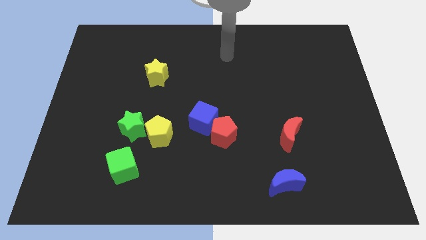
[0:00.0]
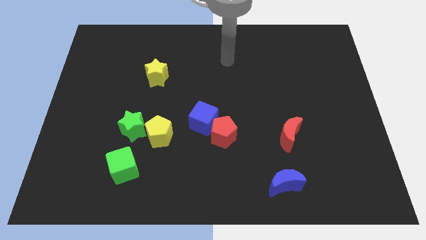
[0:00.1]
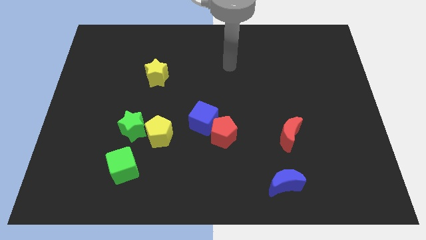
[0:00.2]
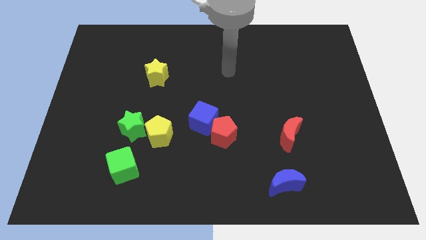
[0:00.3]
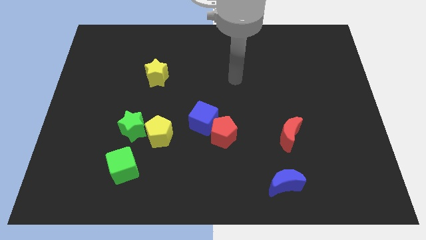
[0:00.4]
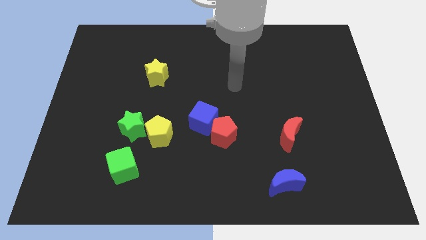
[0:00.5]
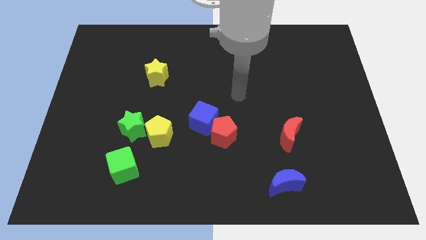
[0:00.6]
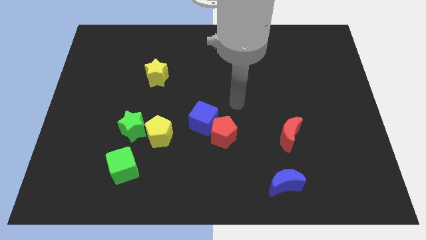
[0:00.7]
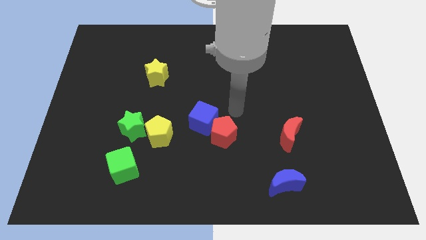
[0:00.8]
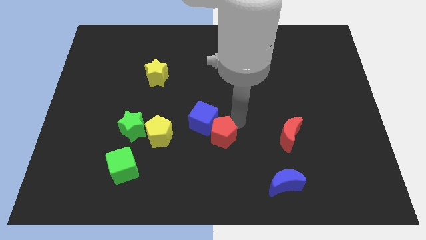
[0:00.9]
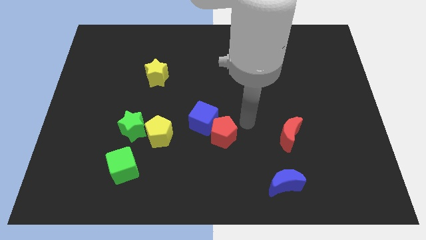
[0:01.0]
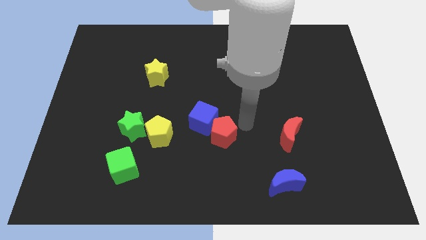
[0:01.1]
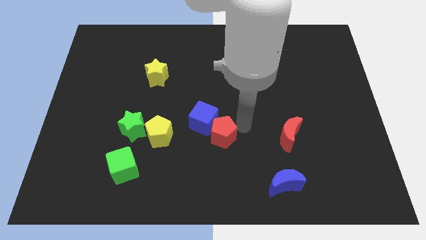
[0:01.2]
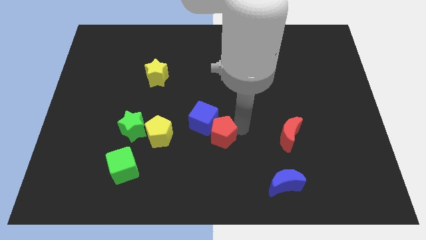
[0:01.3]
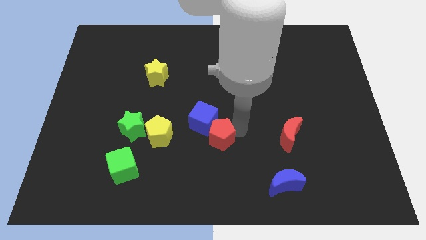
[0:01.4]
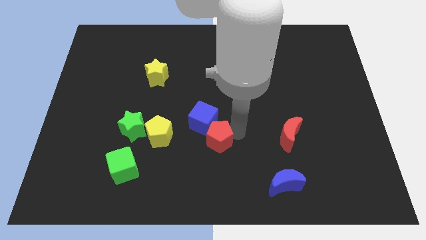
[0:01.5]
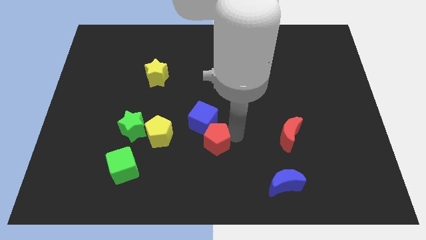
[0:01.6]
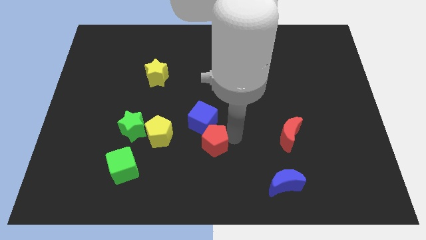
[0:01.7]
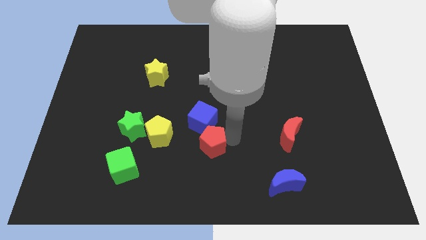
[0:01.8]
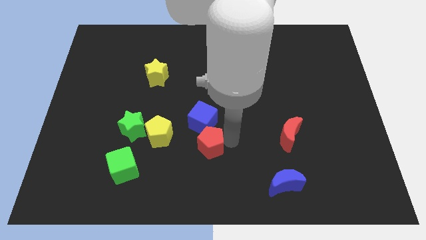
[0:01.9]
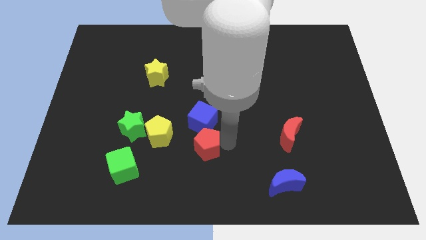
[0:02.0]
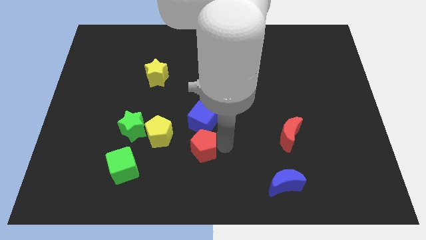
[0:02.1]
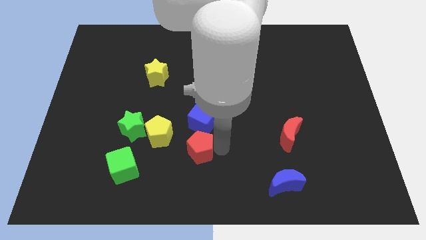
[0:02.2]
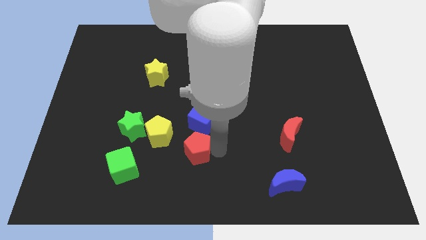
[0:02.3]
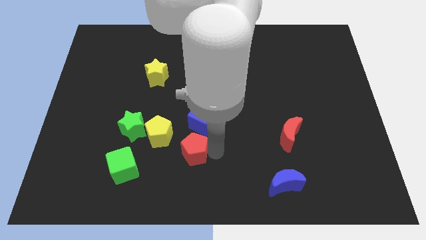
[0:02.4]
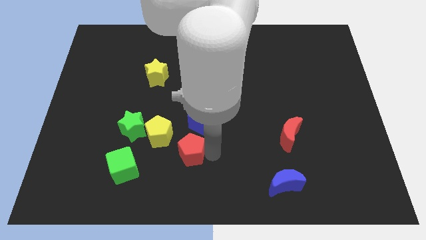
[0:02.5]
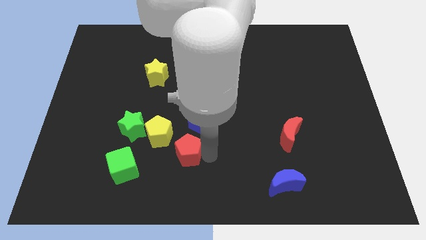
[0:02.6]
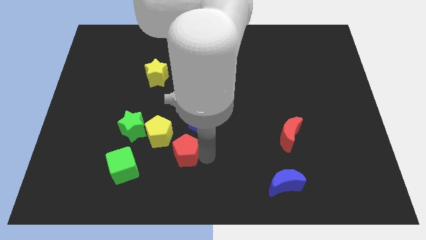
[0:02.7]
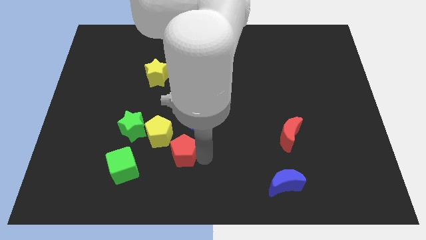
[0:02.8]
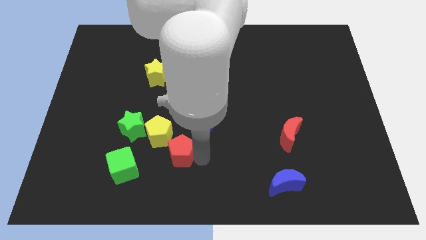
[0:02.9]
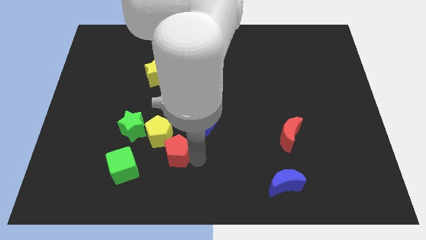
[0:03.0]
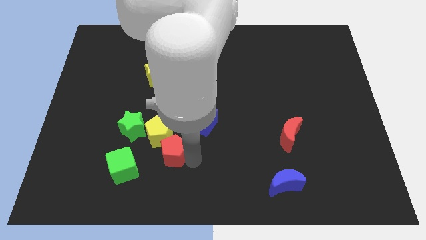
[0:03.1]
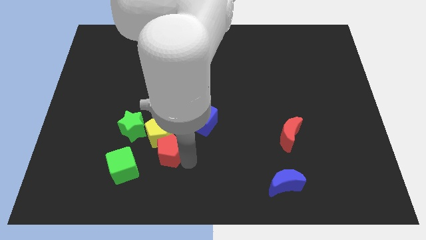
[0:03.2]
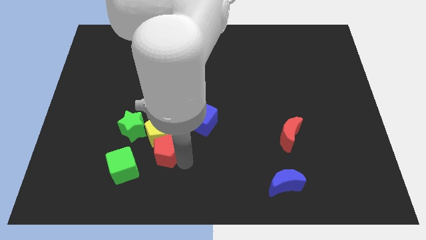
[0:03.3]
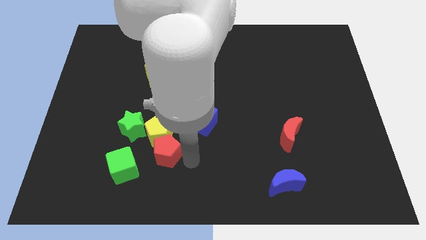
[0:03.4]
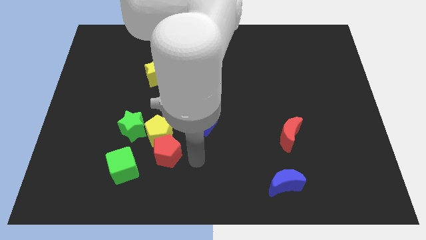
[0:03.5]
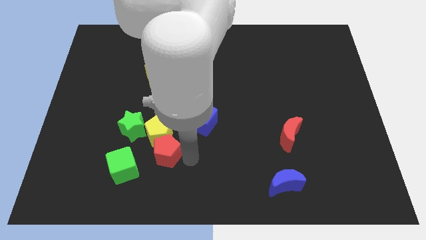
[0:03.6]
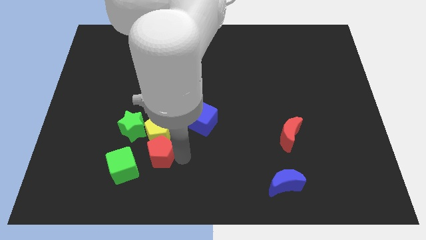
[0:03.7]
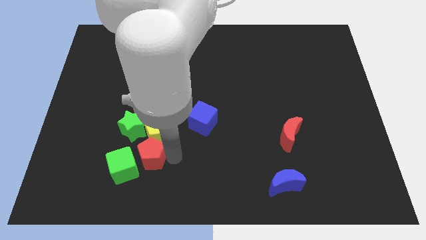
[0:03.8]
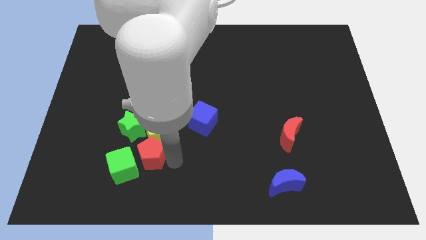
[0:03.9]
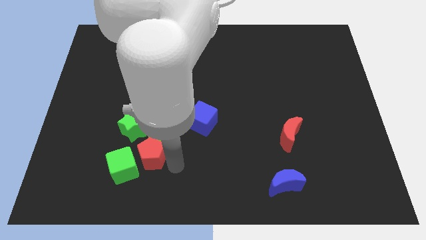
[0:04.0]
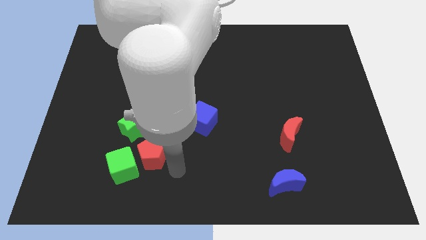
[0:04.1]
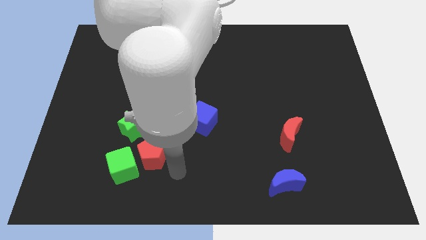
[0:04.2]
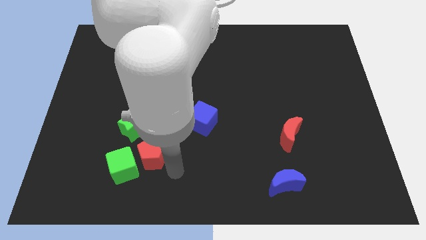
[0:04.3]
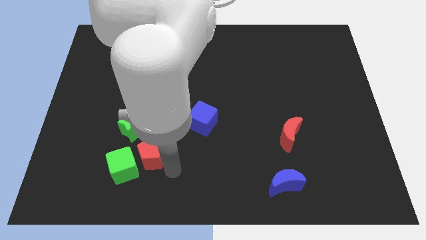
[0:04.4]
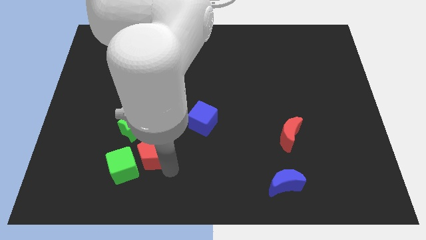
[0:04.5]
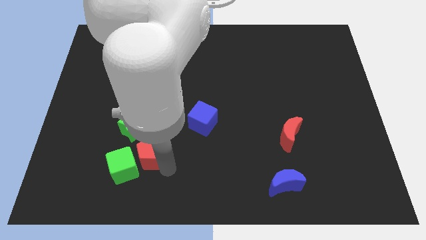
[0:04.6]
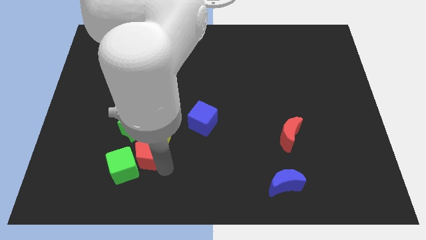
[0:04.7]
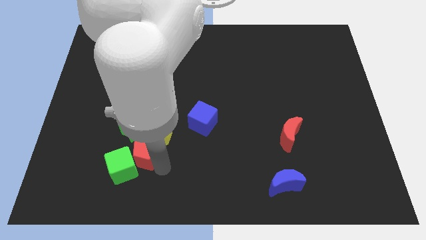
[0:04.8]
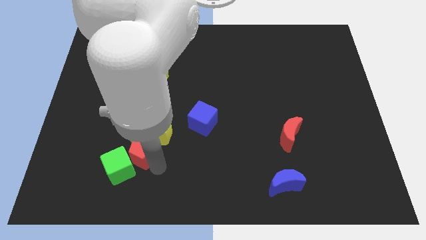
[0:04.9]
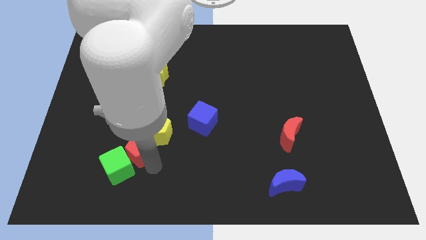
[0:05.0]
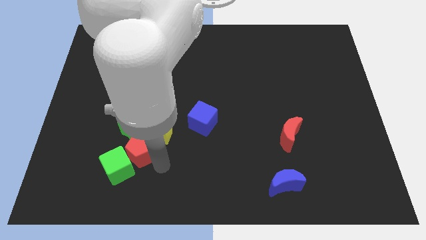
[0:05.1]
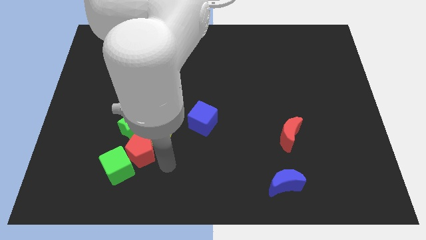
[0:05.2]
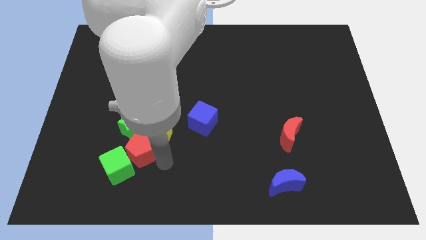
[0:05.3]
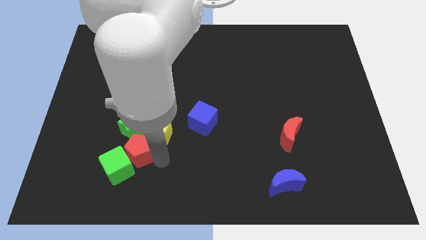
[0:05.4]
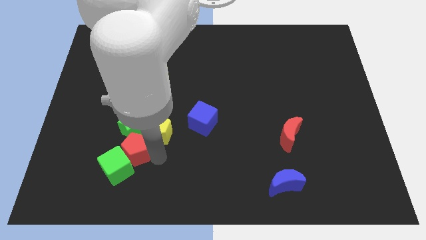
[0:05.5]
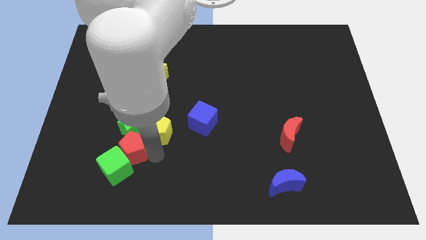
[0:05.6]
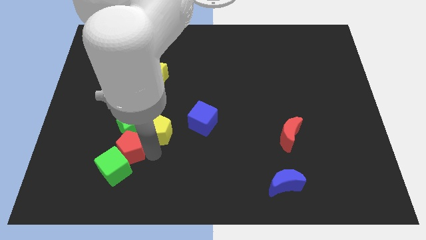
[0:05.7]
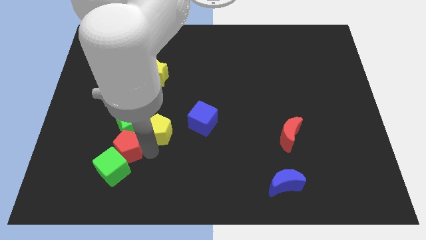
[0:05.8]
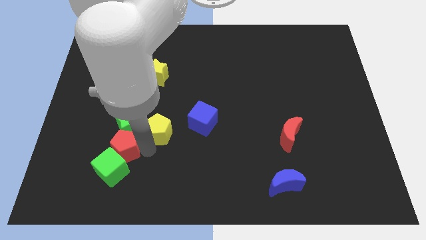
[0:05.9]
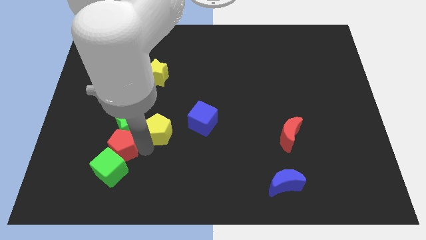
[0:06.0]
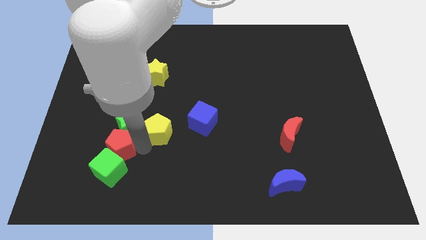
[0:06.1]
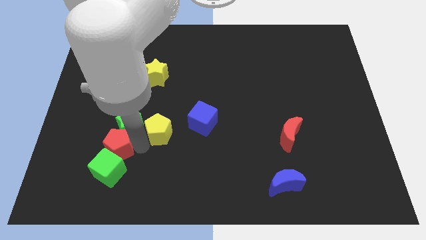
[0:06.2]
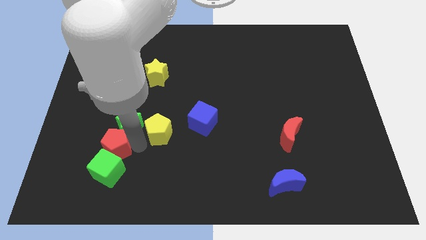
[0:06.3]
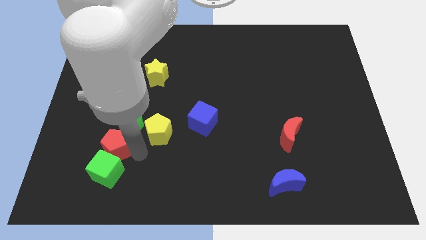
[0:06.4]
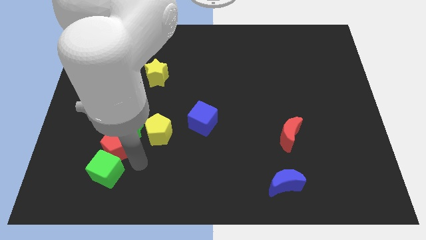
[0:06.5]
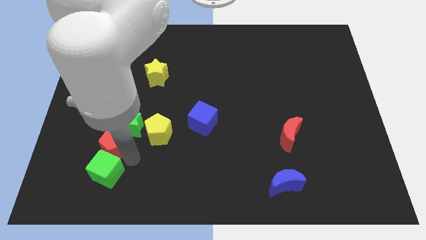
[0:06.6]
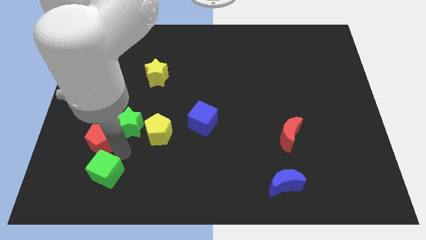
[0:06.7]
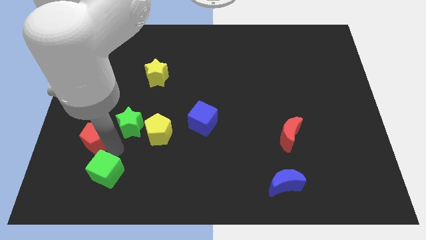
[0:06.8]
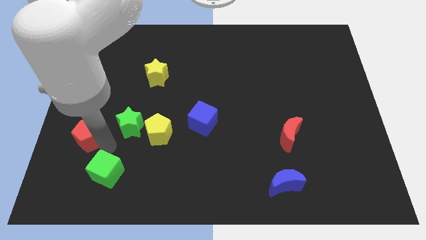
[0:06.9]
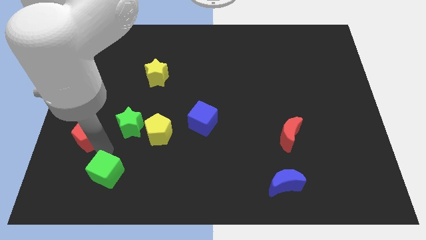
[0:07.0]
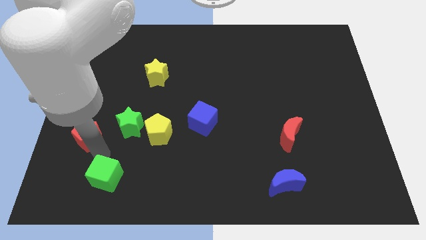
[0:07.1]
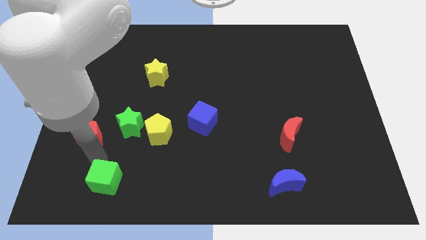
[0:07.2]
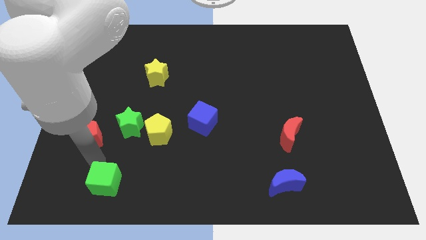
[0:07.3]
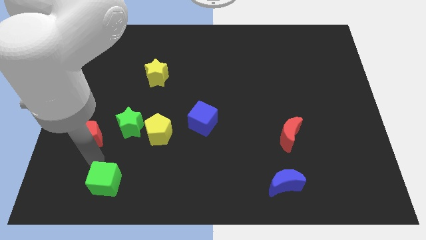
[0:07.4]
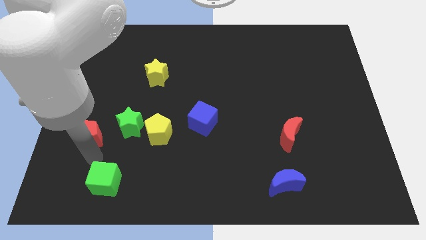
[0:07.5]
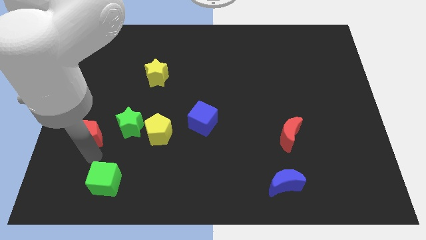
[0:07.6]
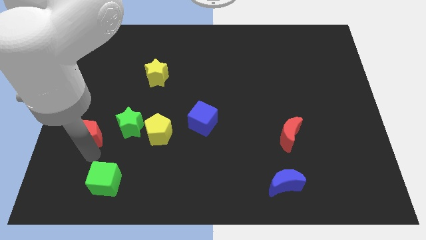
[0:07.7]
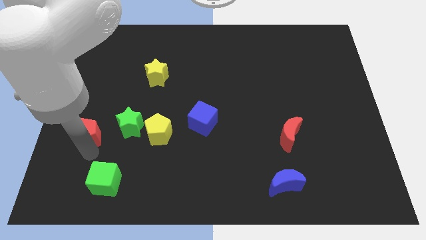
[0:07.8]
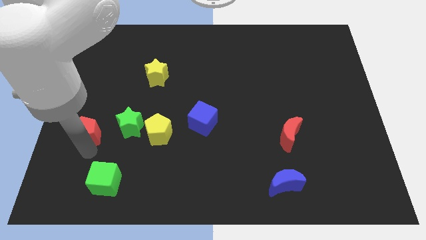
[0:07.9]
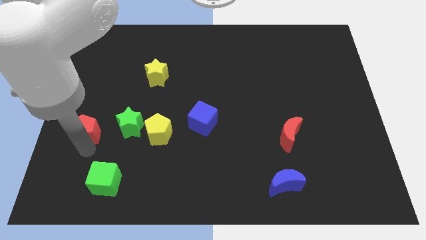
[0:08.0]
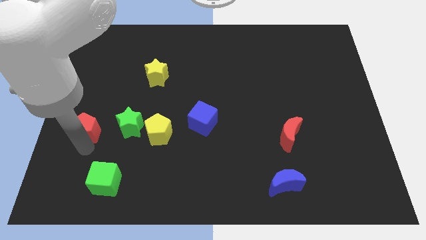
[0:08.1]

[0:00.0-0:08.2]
put the red pentagon to the center left
